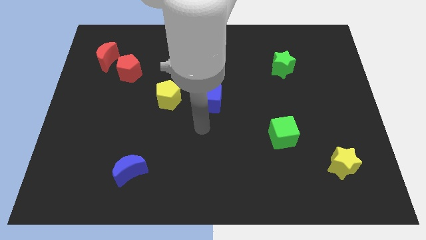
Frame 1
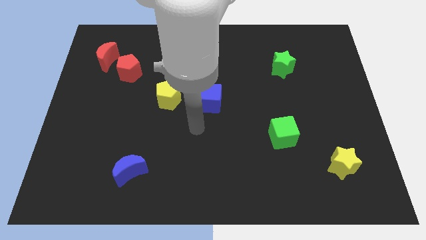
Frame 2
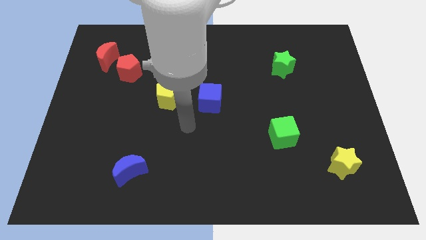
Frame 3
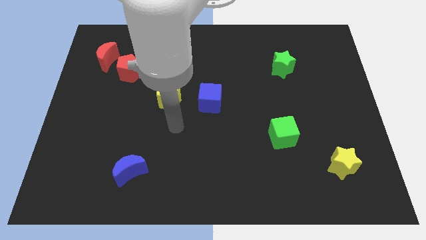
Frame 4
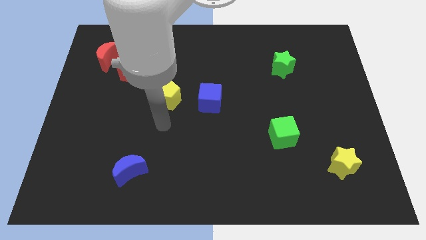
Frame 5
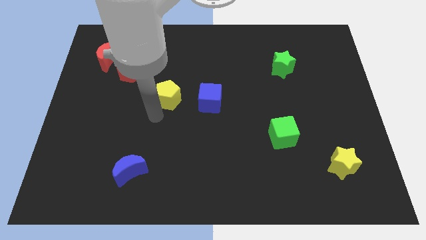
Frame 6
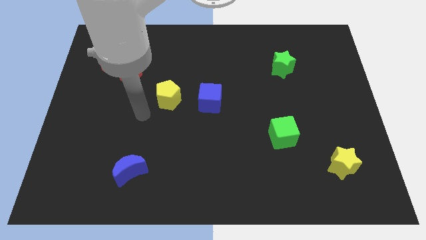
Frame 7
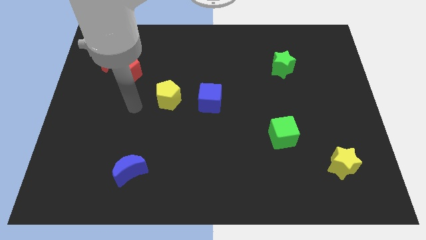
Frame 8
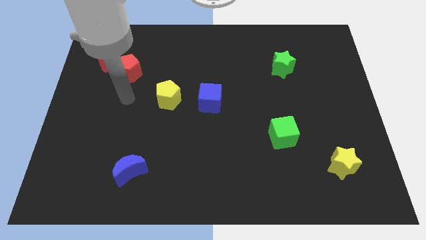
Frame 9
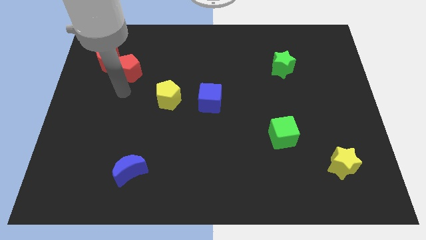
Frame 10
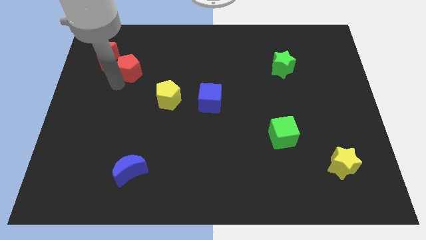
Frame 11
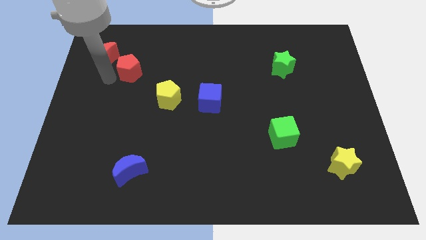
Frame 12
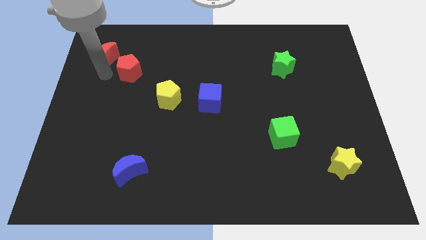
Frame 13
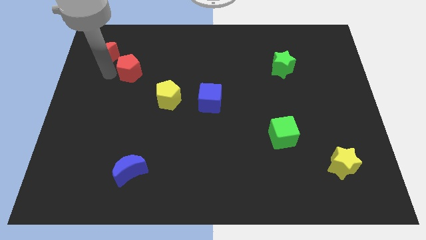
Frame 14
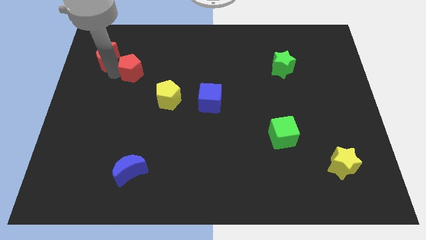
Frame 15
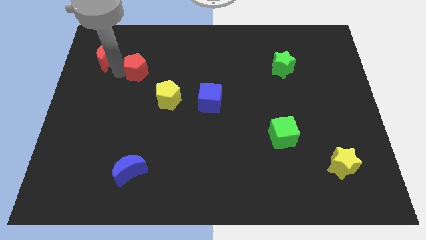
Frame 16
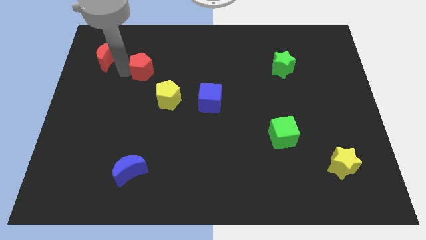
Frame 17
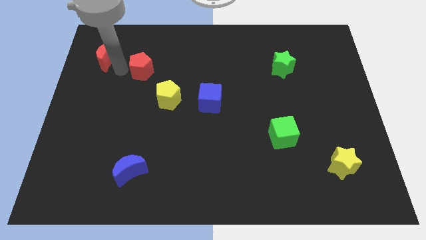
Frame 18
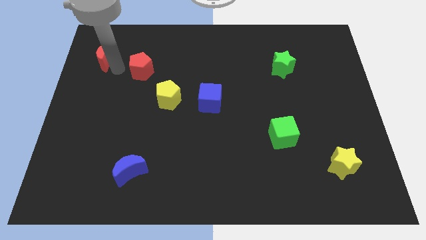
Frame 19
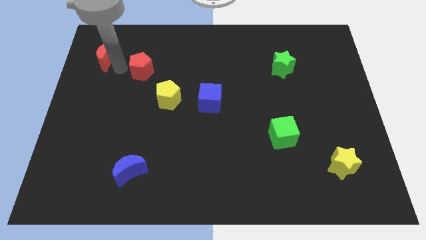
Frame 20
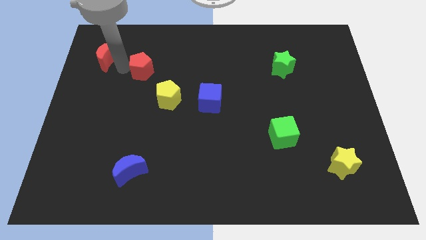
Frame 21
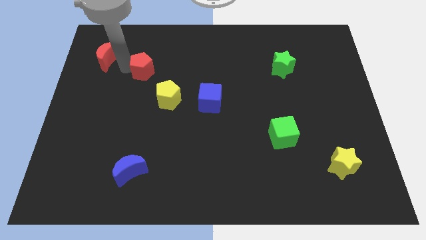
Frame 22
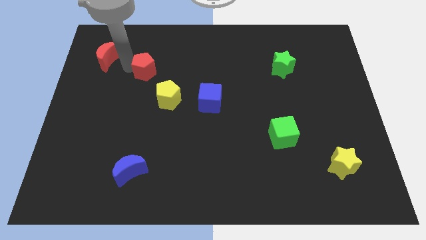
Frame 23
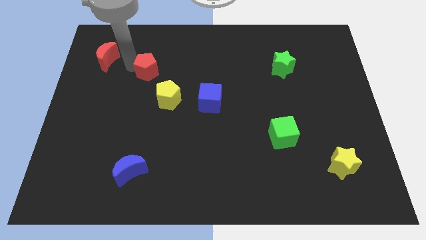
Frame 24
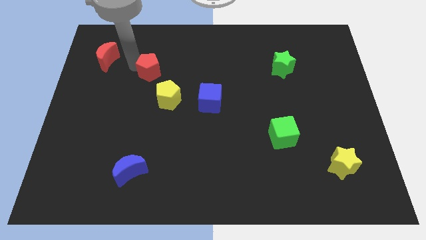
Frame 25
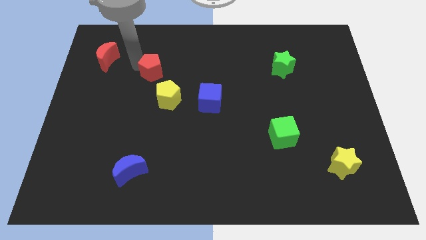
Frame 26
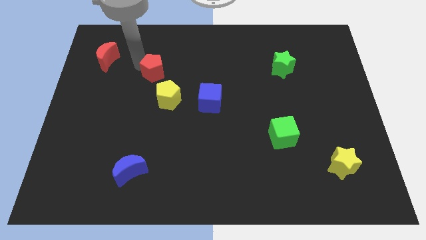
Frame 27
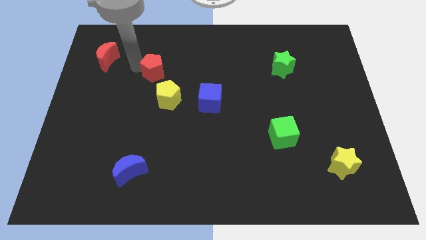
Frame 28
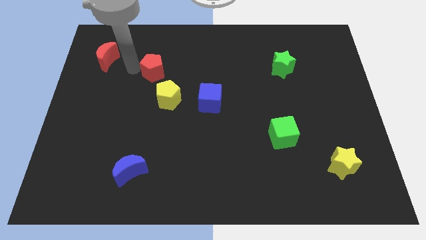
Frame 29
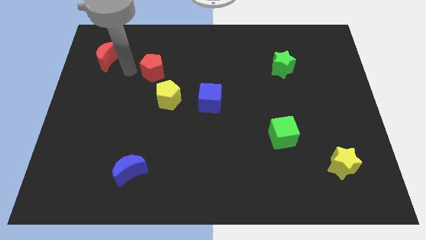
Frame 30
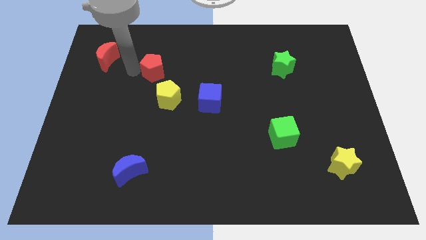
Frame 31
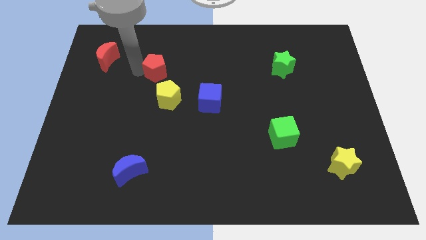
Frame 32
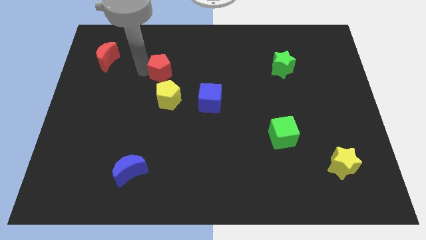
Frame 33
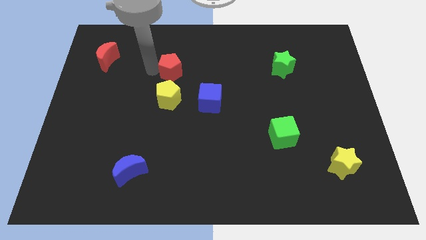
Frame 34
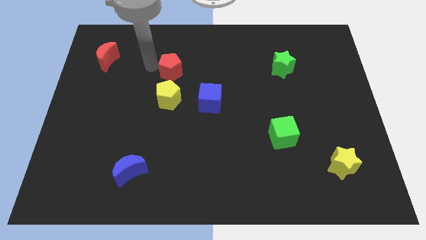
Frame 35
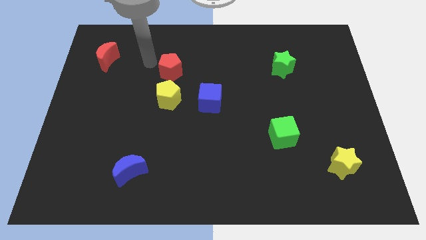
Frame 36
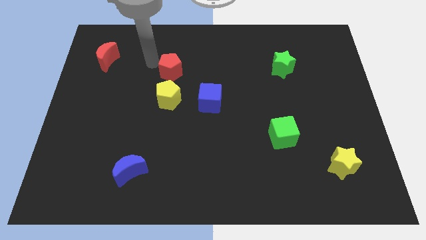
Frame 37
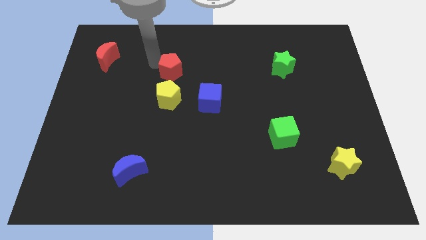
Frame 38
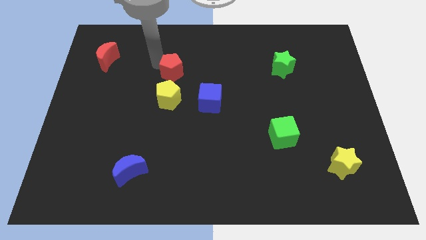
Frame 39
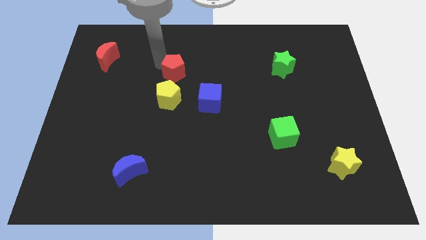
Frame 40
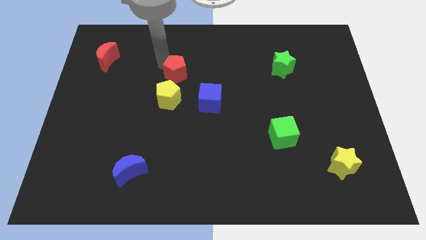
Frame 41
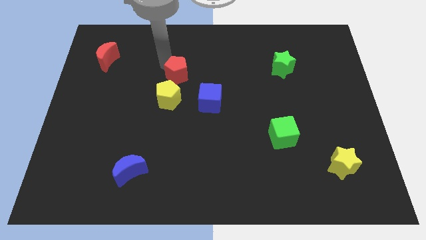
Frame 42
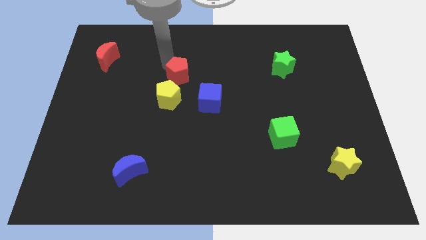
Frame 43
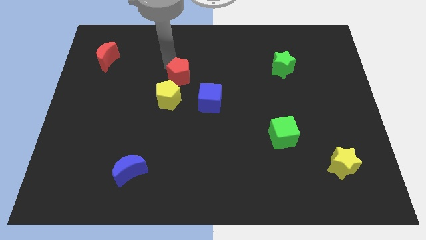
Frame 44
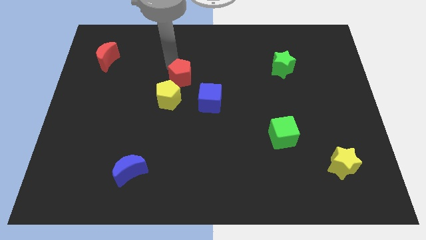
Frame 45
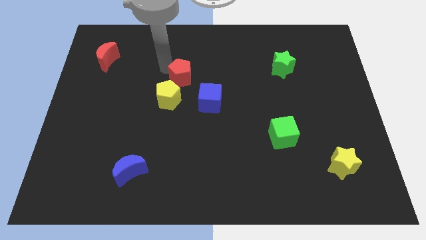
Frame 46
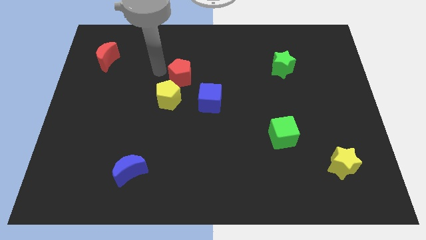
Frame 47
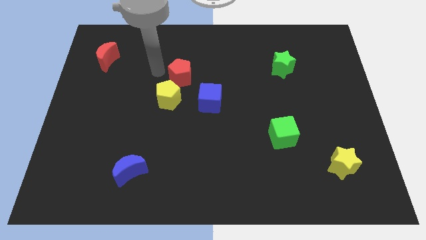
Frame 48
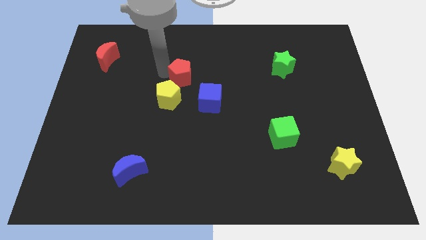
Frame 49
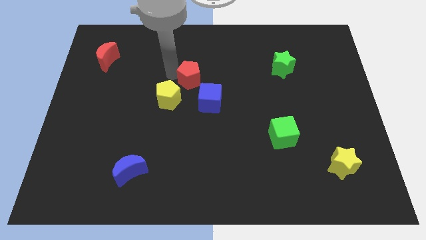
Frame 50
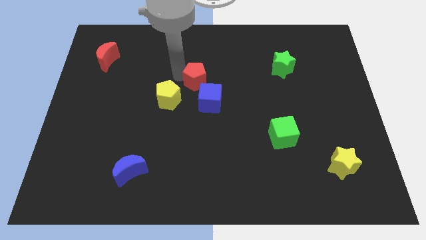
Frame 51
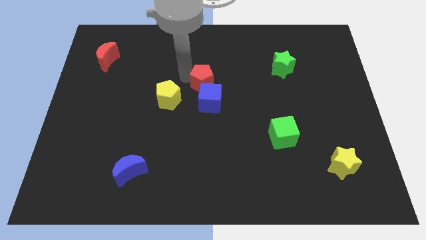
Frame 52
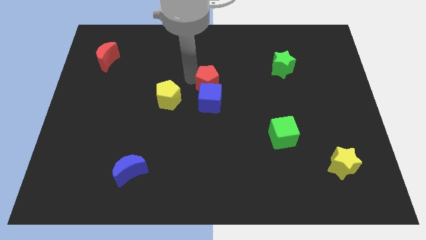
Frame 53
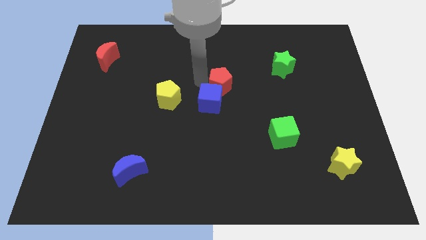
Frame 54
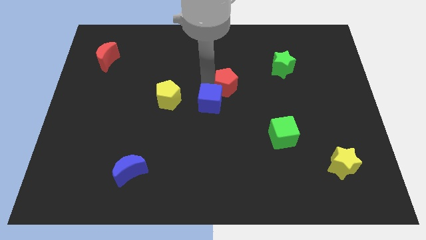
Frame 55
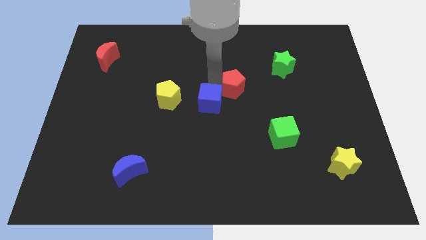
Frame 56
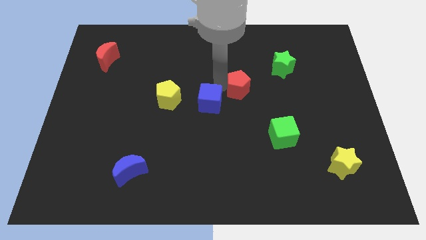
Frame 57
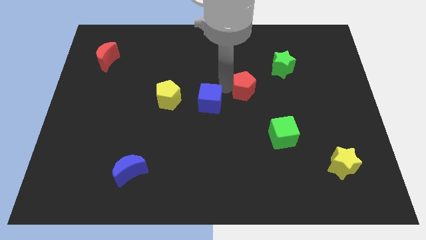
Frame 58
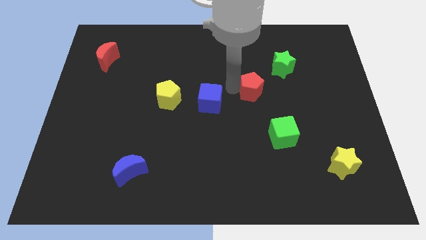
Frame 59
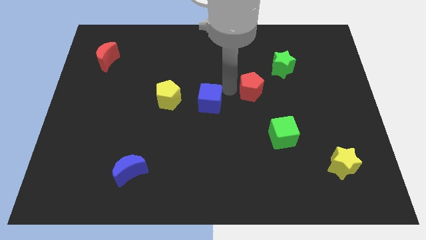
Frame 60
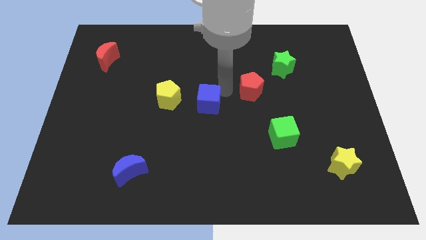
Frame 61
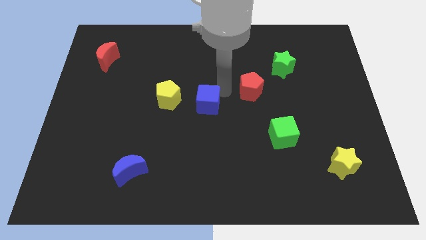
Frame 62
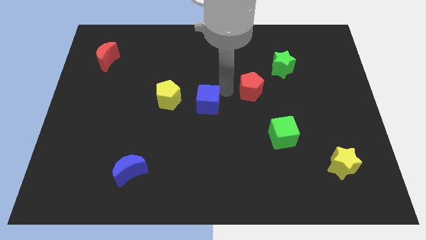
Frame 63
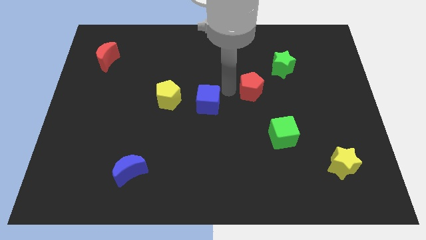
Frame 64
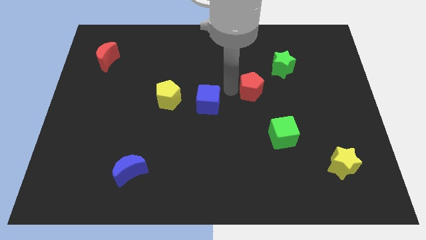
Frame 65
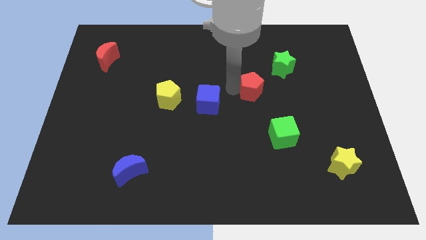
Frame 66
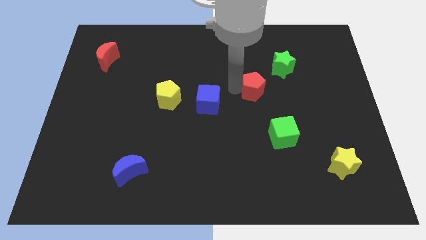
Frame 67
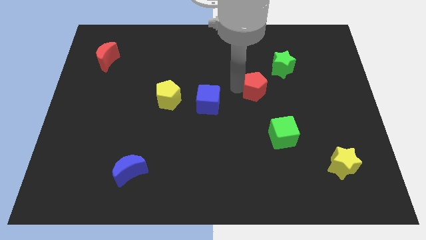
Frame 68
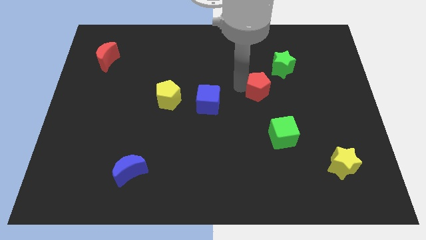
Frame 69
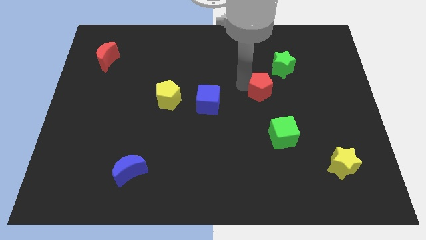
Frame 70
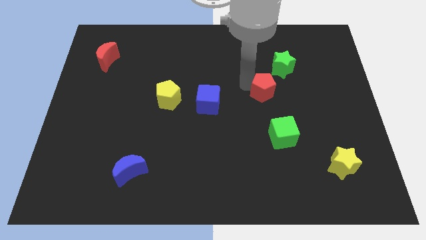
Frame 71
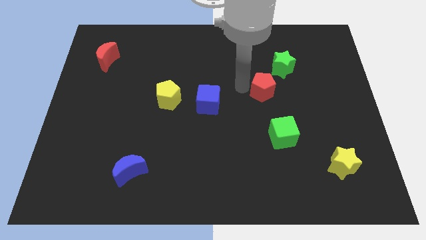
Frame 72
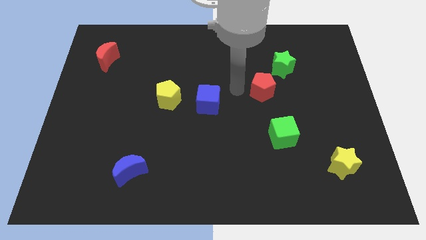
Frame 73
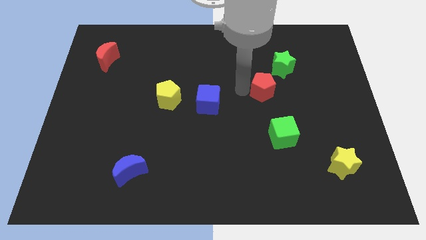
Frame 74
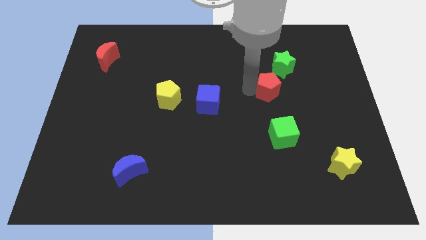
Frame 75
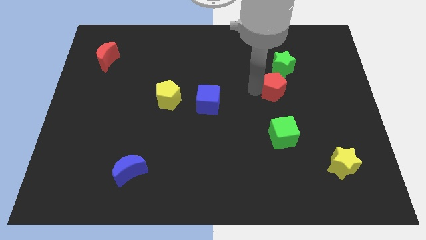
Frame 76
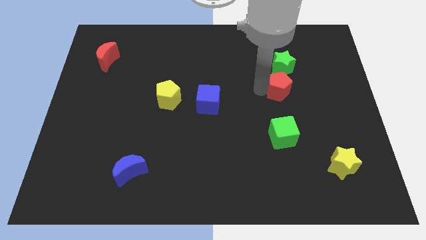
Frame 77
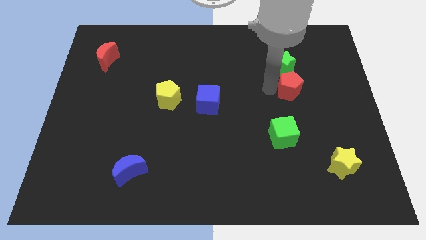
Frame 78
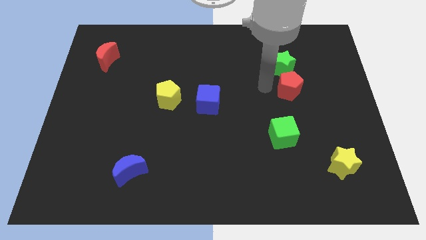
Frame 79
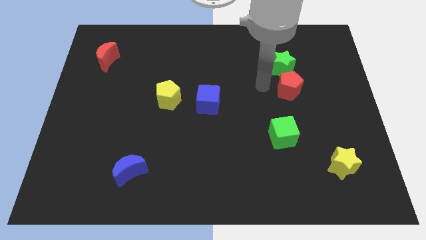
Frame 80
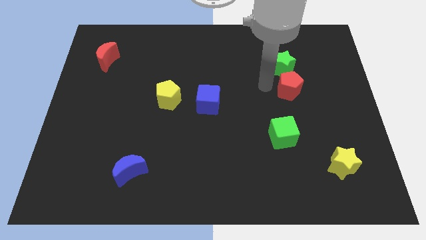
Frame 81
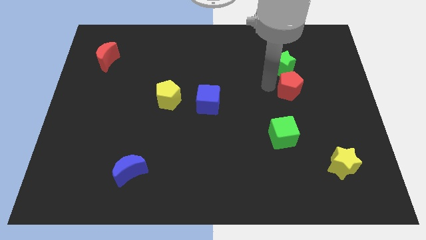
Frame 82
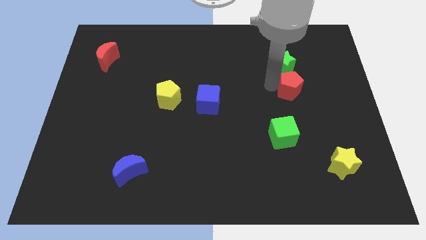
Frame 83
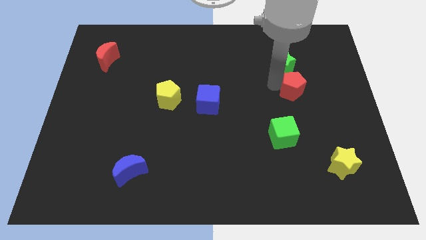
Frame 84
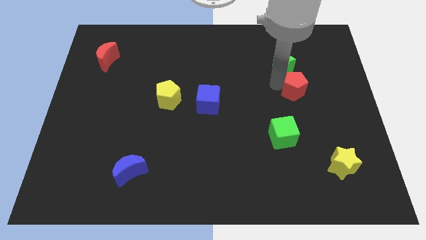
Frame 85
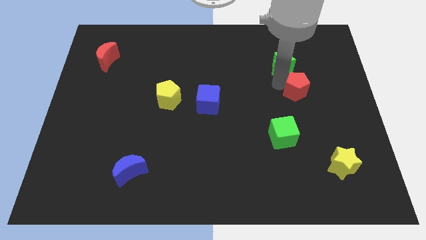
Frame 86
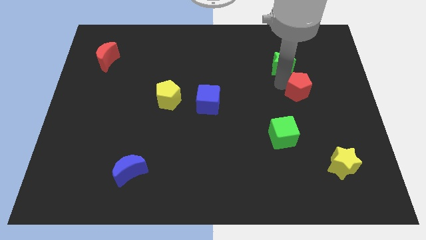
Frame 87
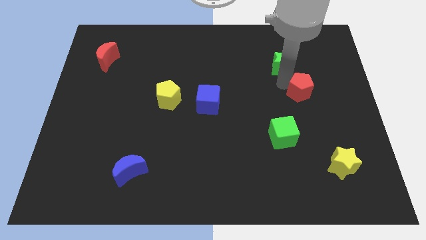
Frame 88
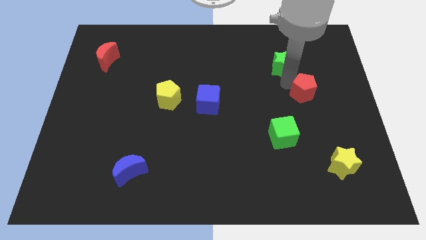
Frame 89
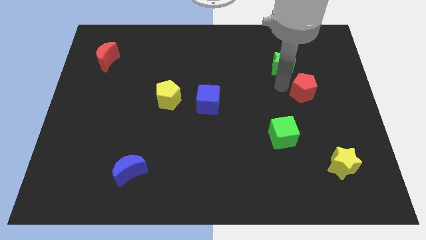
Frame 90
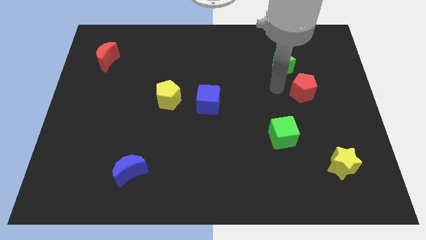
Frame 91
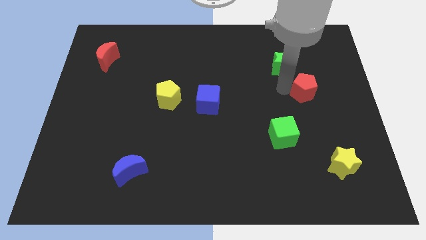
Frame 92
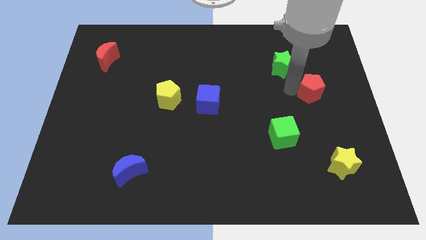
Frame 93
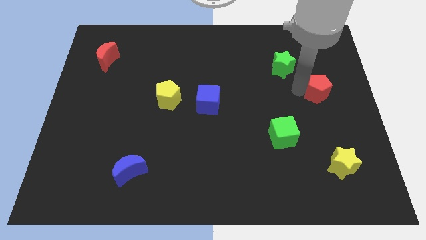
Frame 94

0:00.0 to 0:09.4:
push the red pentagon to the right side
